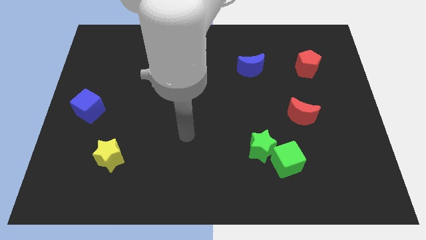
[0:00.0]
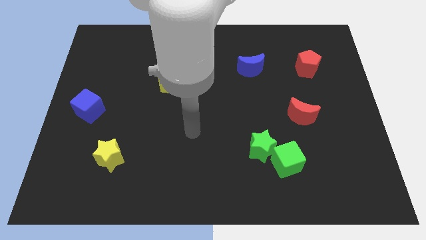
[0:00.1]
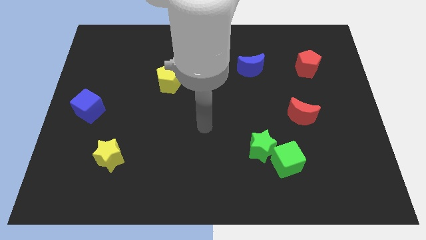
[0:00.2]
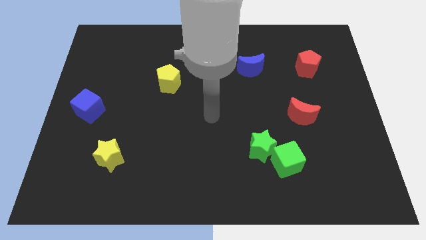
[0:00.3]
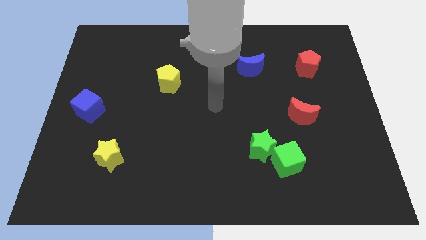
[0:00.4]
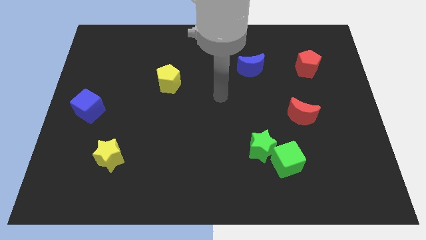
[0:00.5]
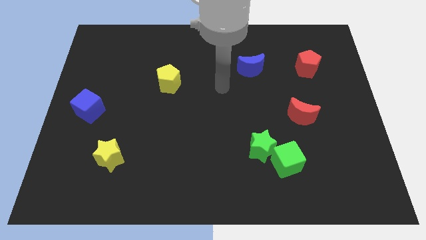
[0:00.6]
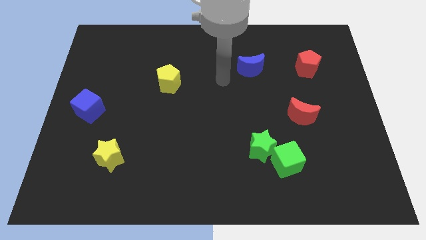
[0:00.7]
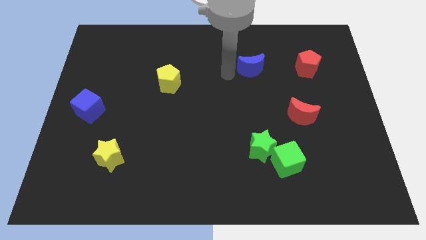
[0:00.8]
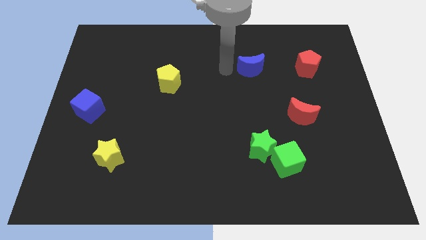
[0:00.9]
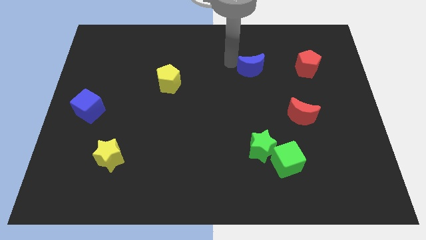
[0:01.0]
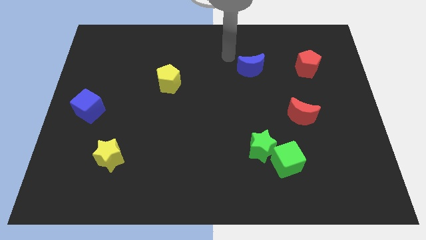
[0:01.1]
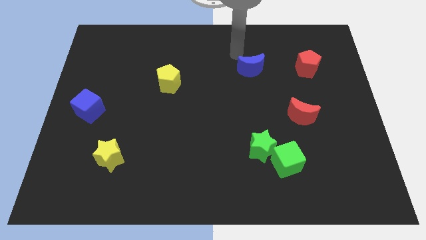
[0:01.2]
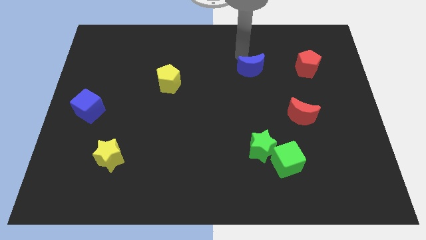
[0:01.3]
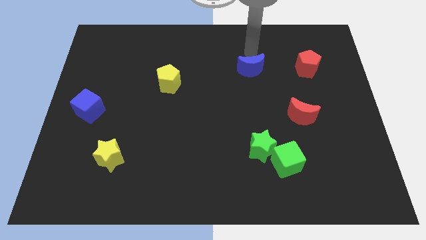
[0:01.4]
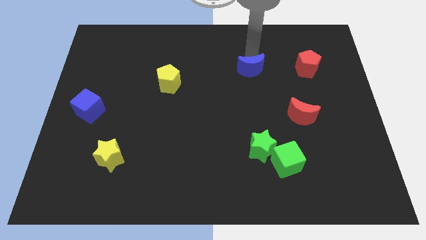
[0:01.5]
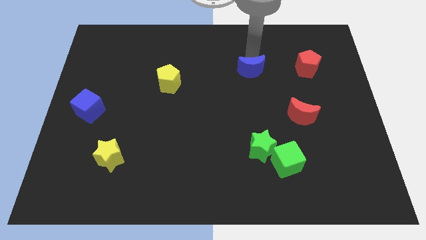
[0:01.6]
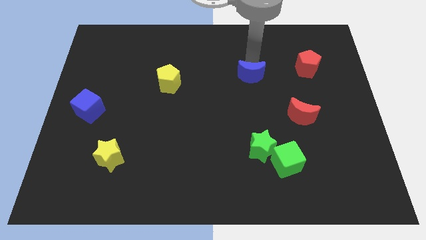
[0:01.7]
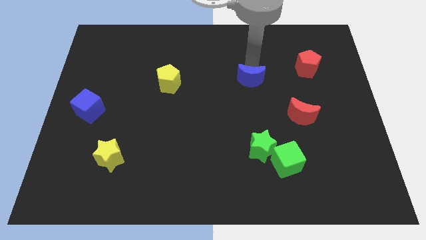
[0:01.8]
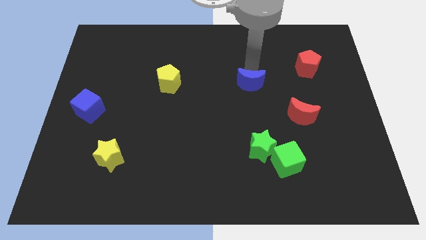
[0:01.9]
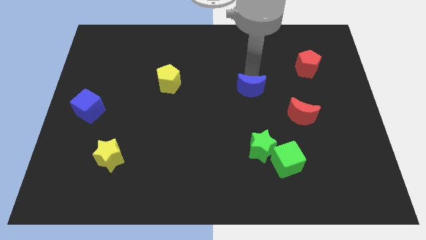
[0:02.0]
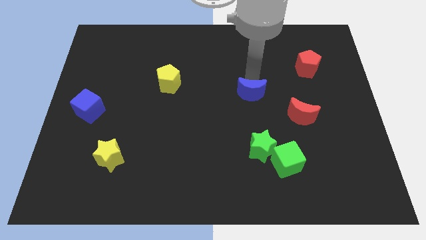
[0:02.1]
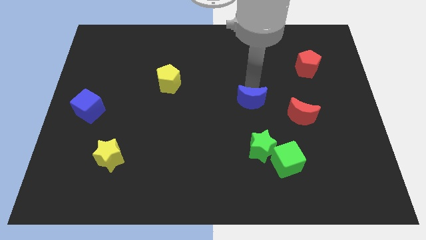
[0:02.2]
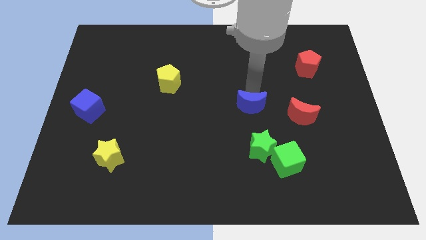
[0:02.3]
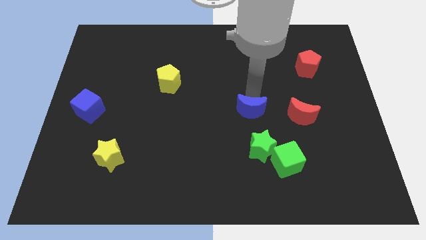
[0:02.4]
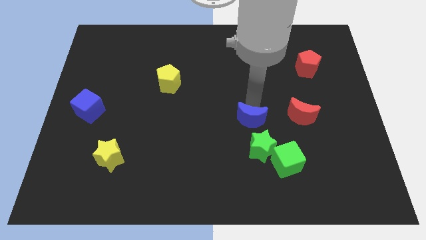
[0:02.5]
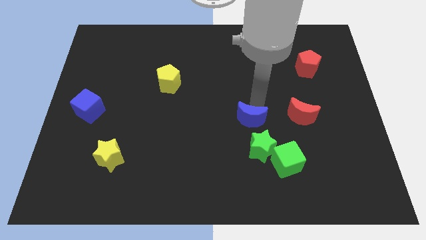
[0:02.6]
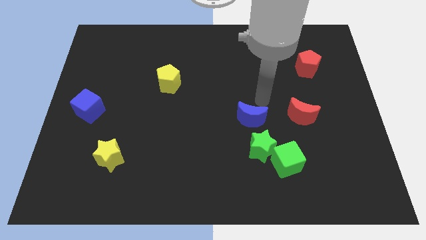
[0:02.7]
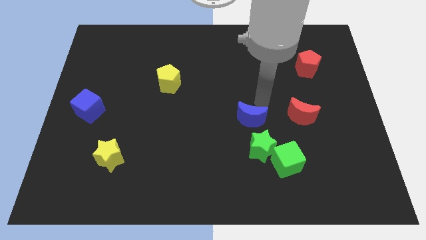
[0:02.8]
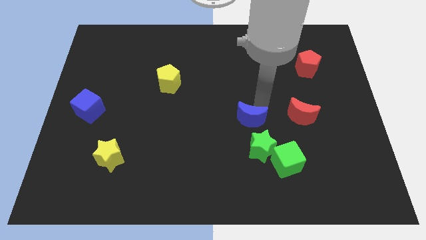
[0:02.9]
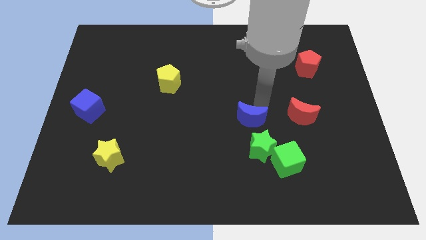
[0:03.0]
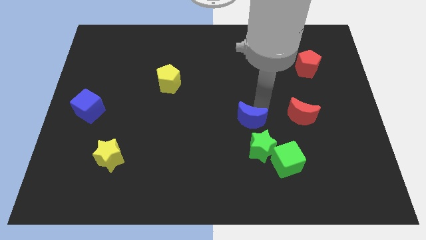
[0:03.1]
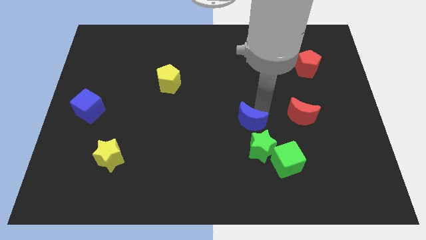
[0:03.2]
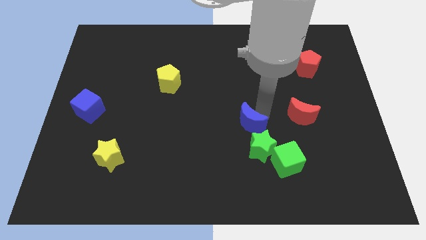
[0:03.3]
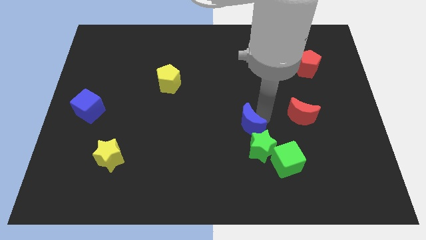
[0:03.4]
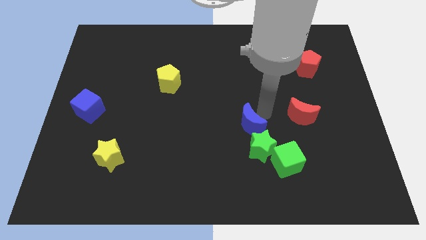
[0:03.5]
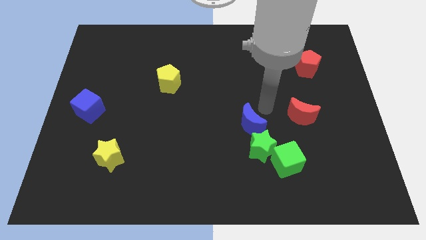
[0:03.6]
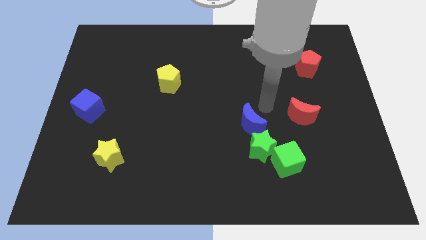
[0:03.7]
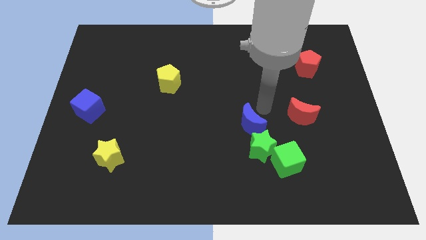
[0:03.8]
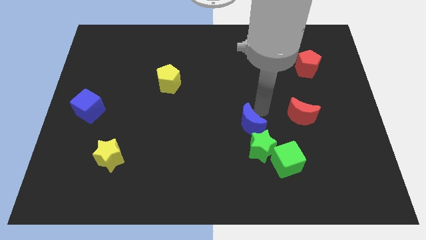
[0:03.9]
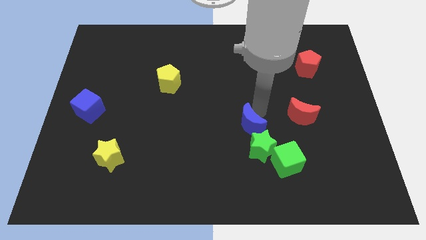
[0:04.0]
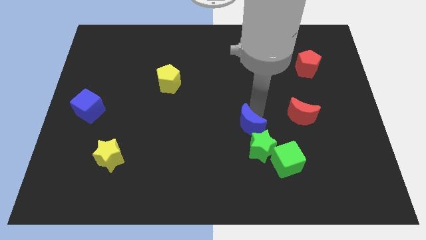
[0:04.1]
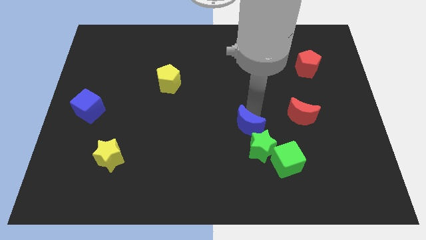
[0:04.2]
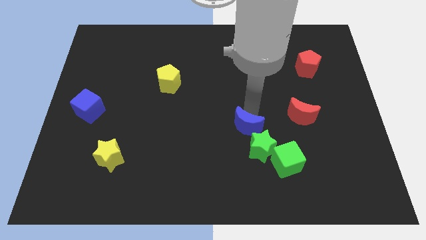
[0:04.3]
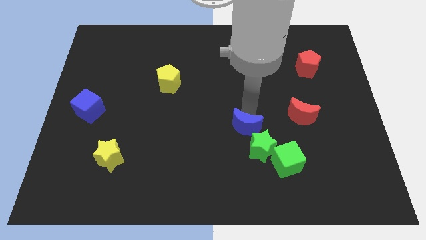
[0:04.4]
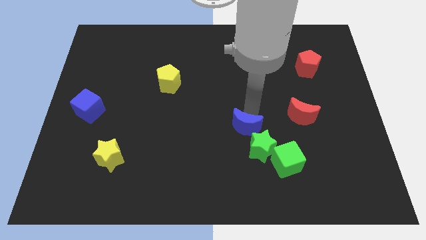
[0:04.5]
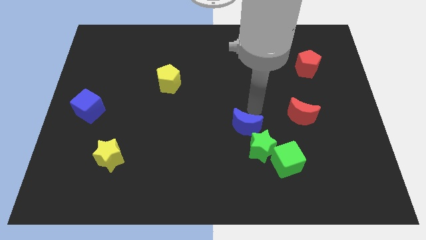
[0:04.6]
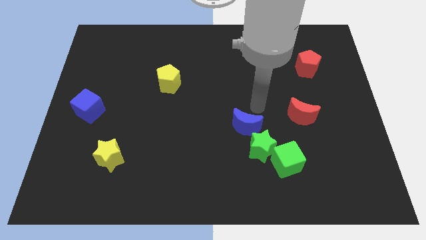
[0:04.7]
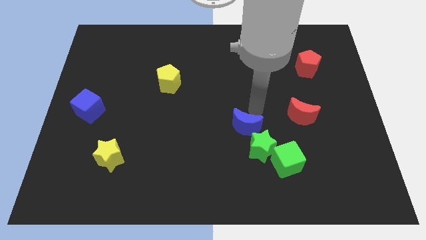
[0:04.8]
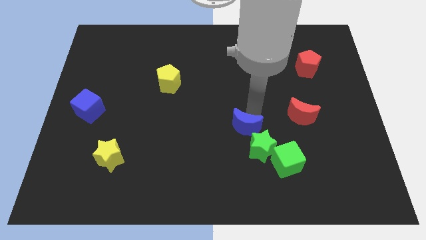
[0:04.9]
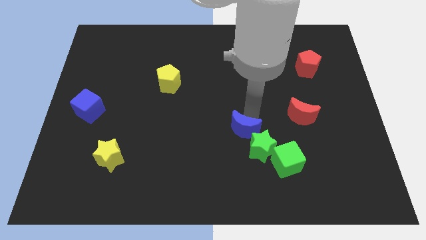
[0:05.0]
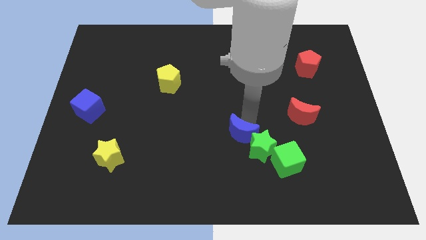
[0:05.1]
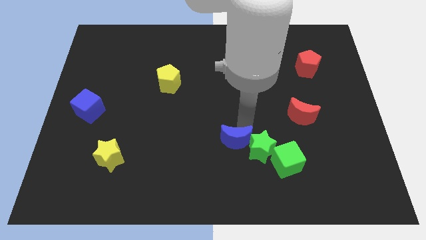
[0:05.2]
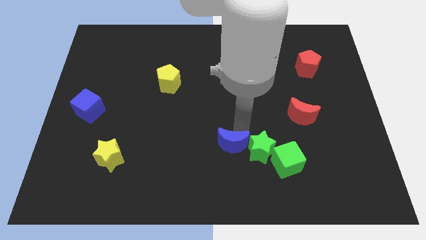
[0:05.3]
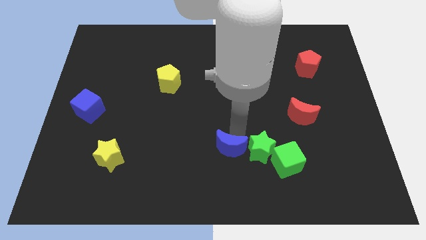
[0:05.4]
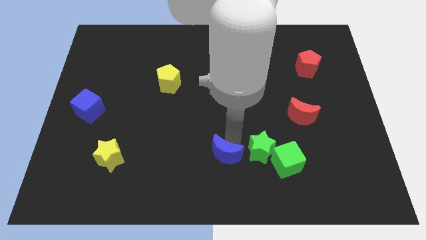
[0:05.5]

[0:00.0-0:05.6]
put the blue moon to the bottom
